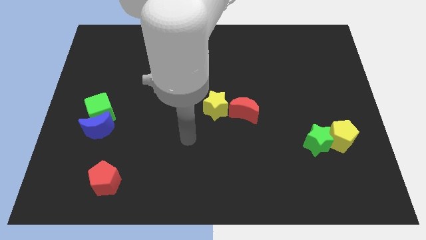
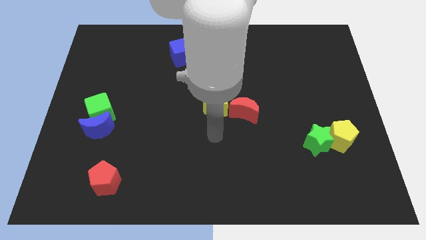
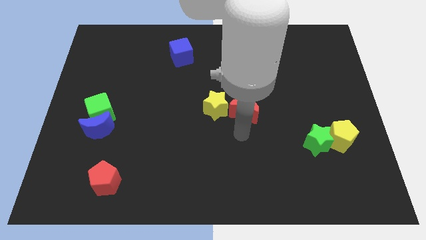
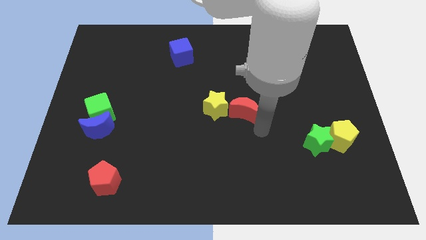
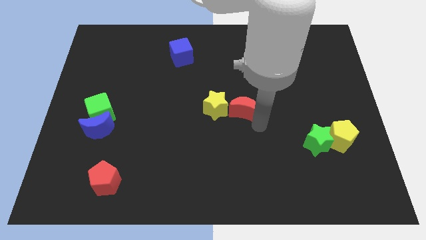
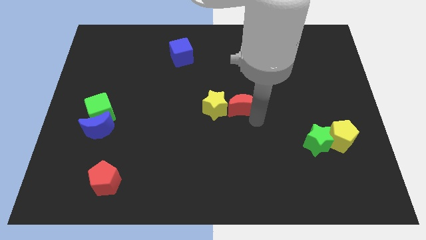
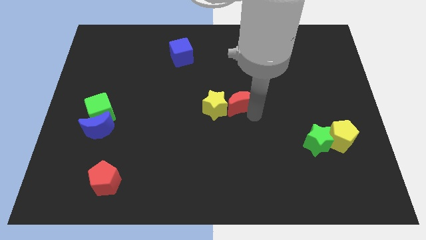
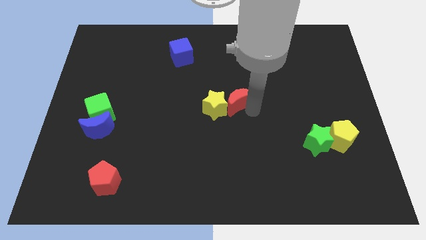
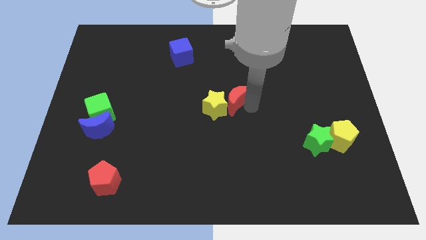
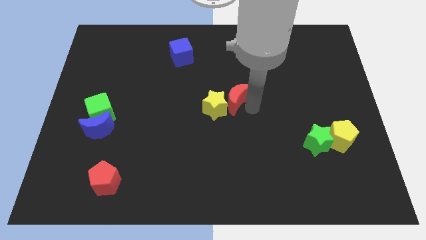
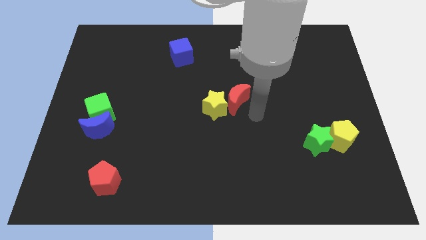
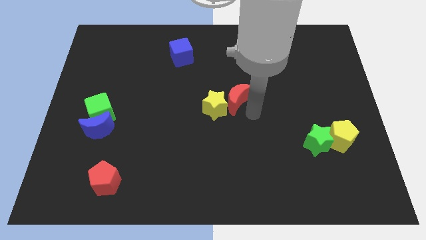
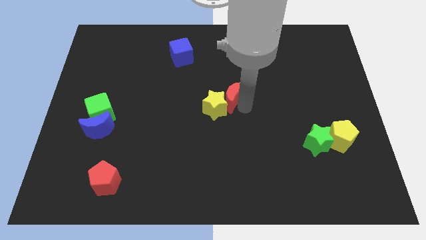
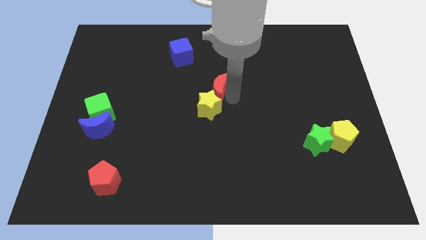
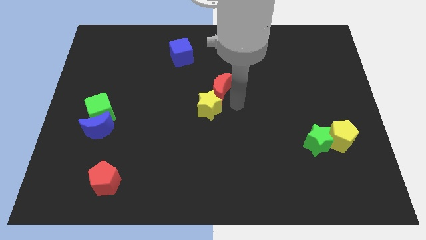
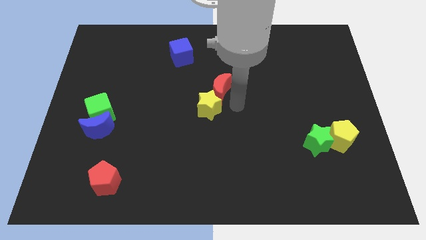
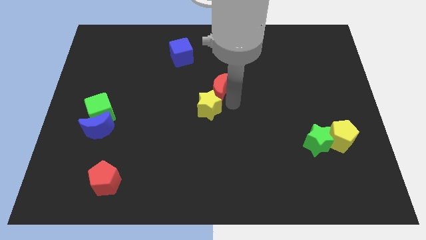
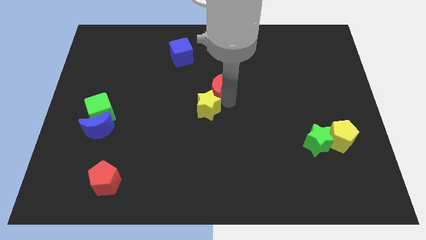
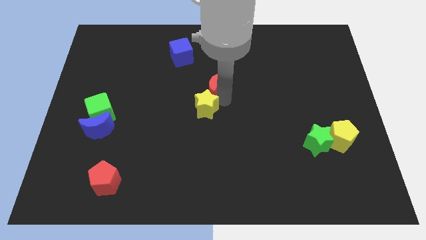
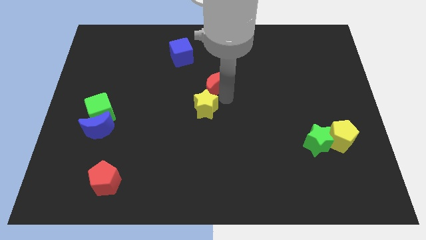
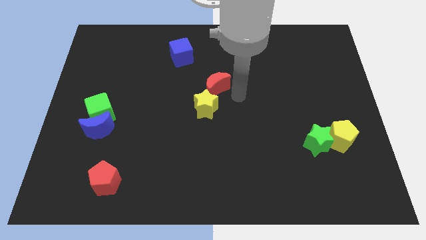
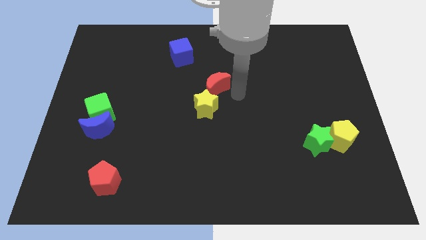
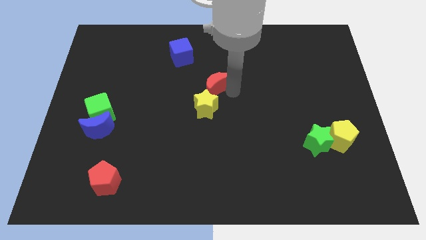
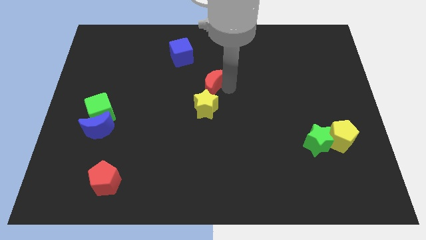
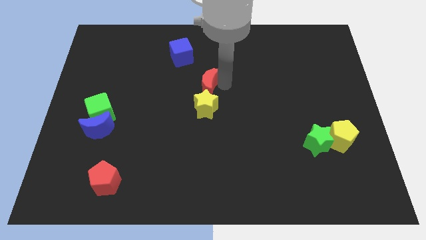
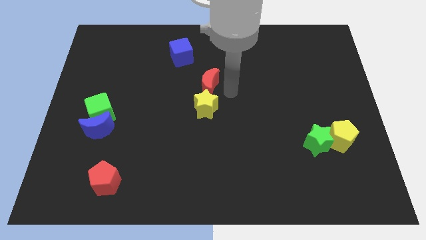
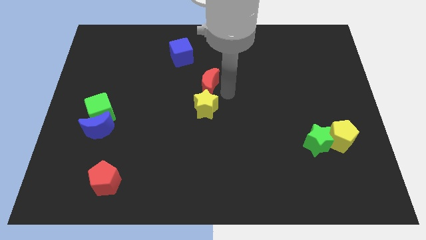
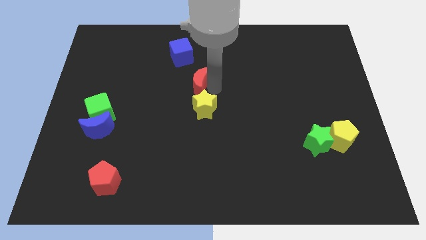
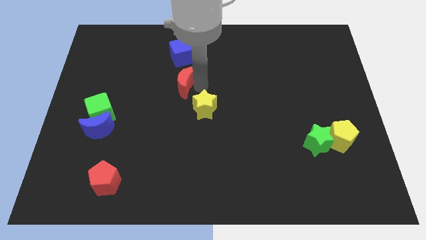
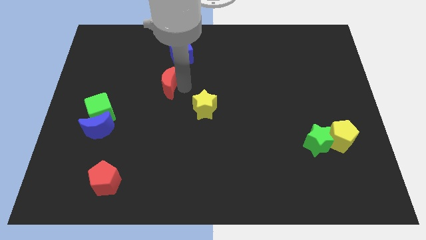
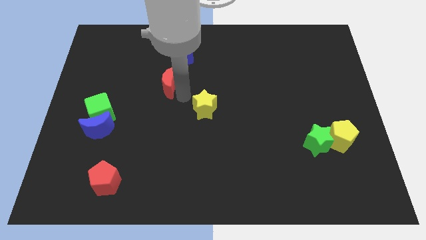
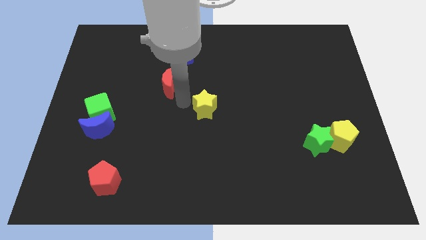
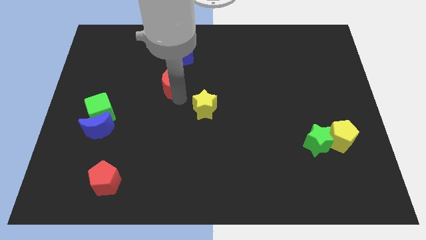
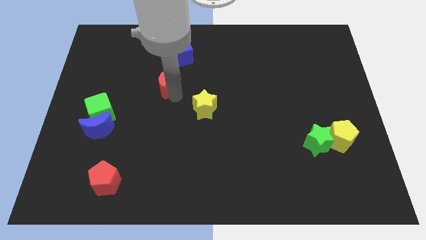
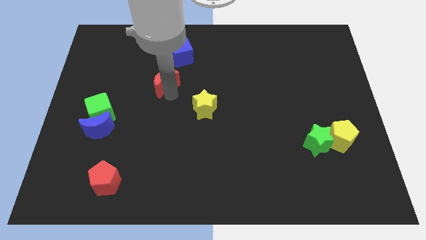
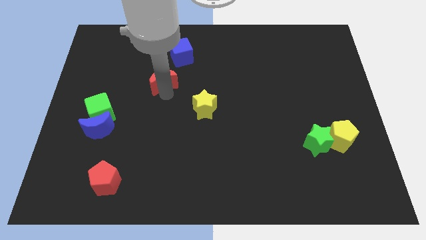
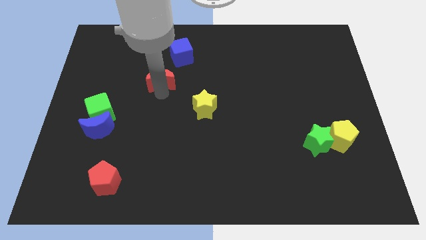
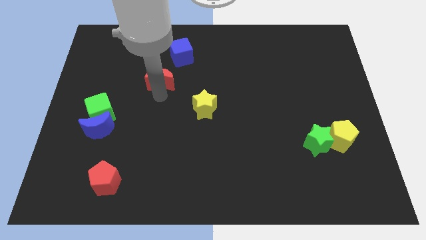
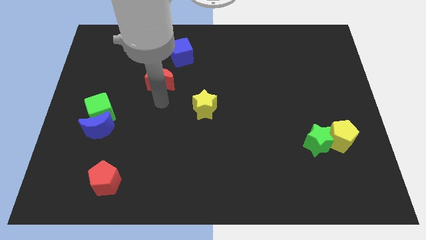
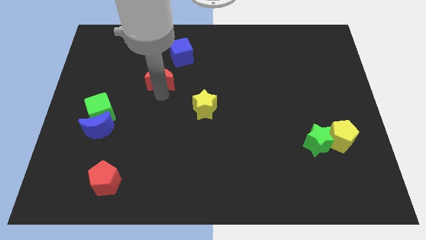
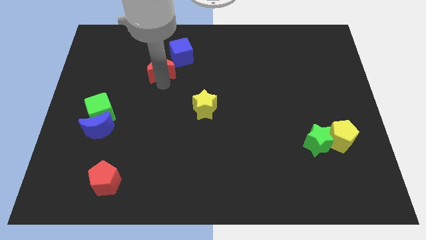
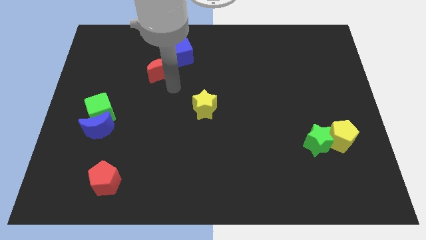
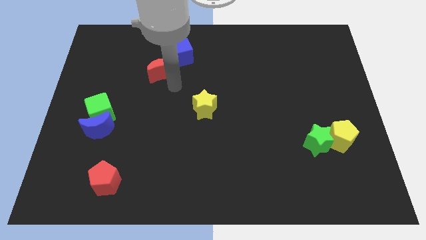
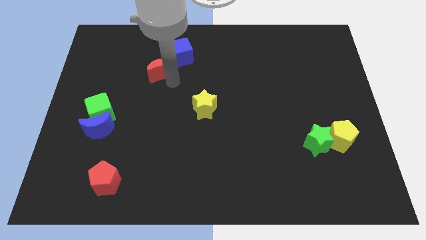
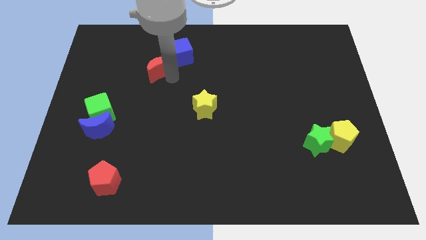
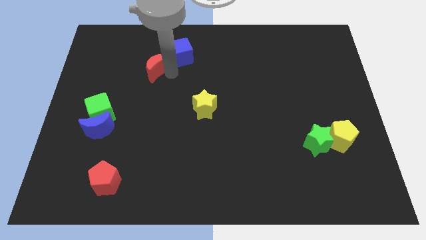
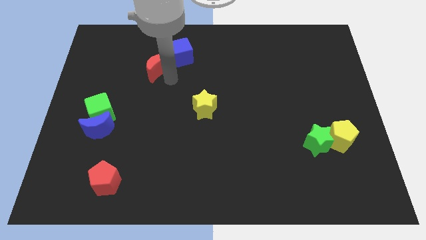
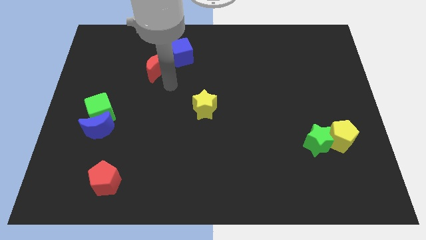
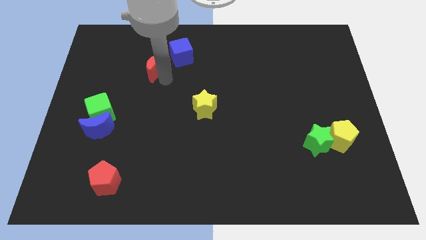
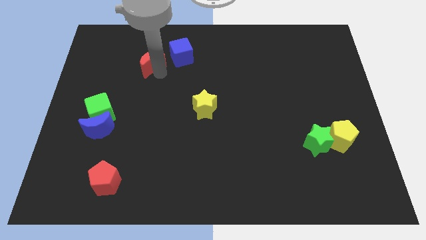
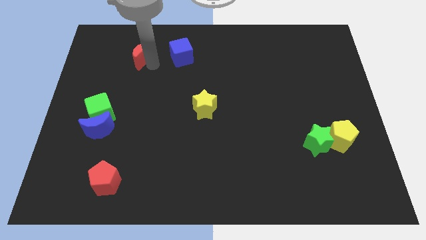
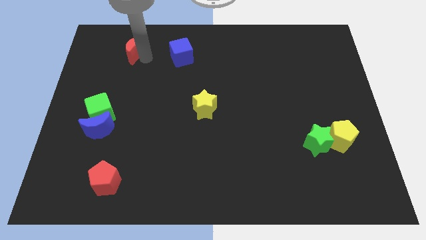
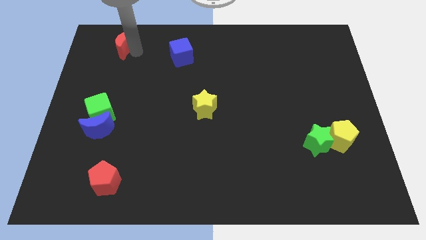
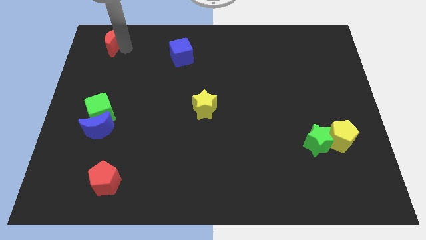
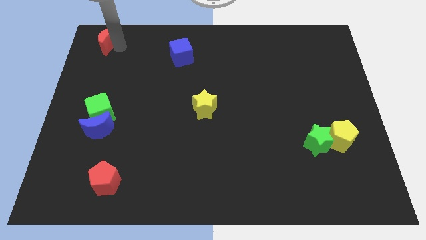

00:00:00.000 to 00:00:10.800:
move the red moon to the top left of the board

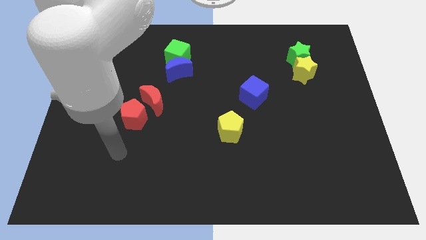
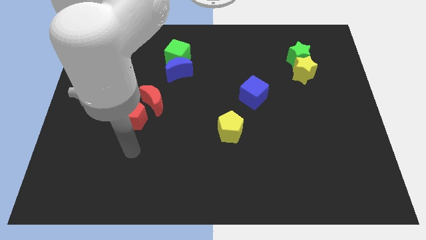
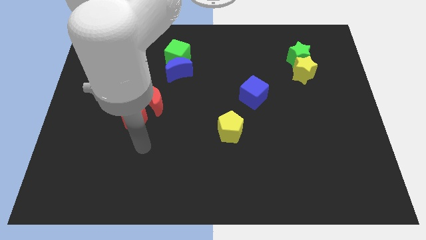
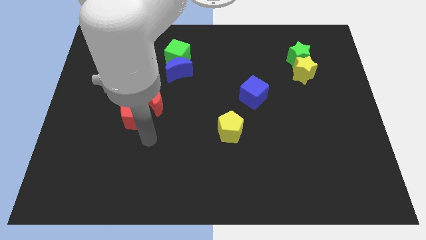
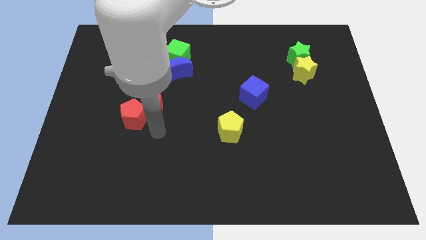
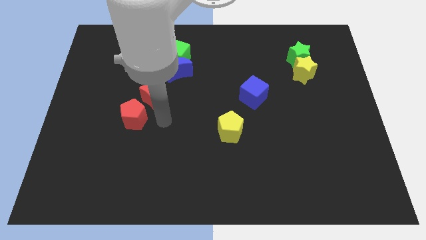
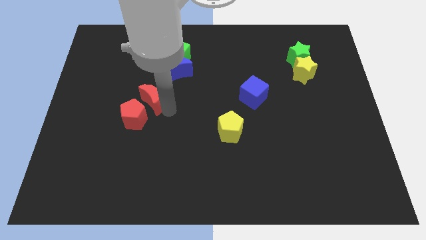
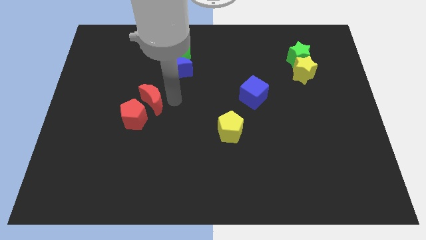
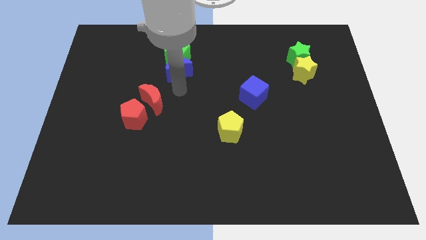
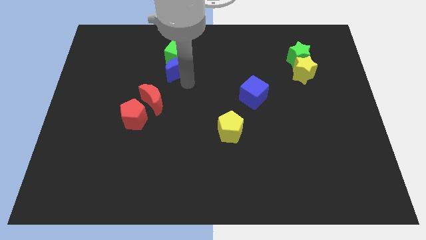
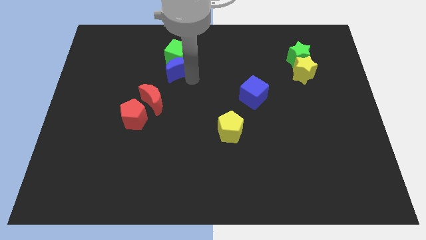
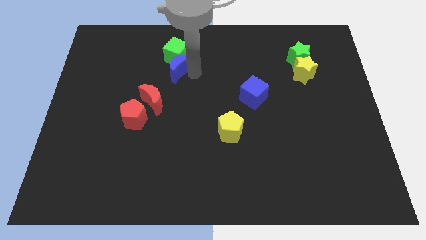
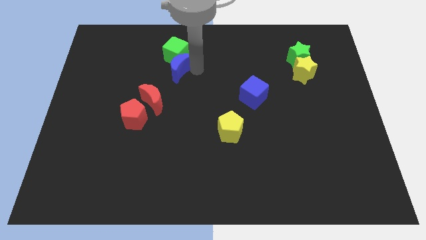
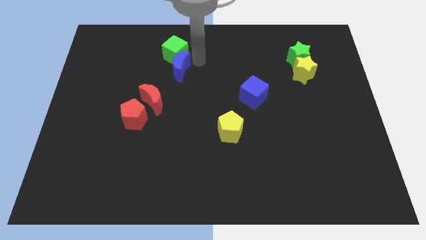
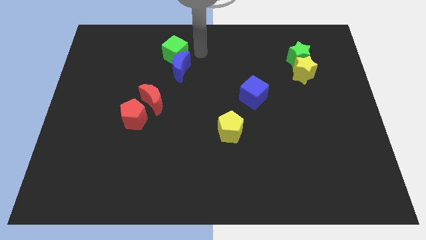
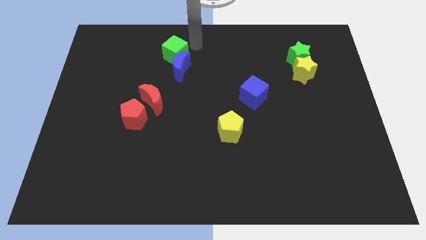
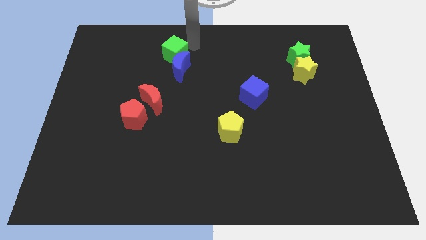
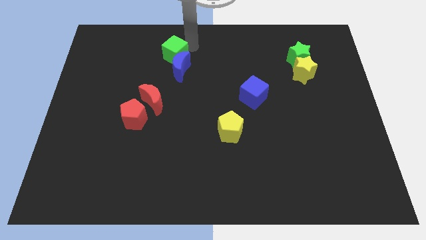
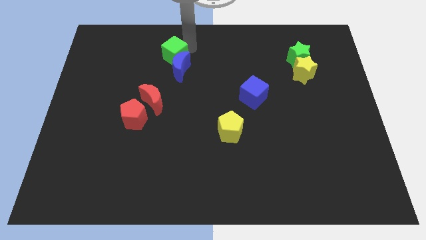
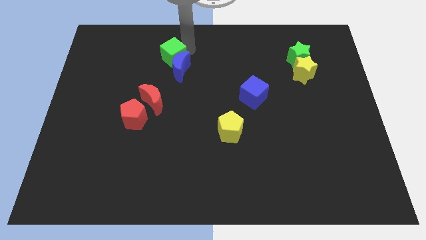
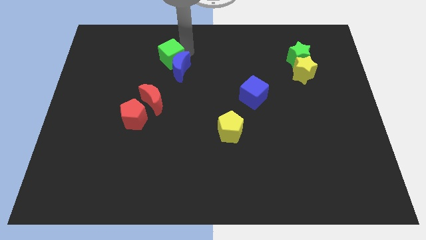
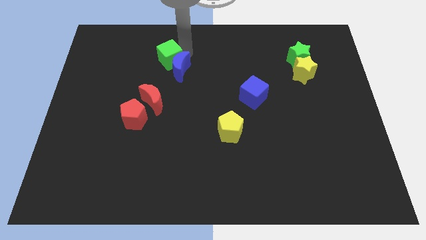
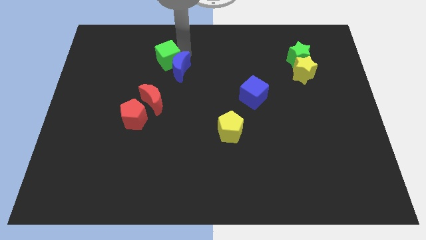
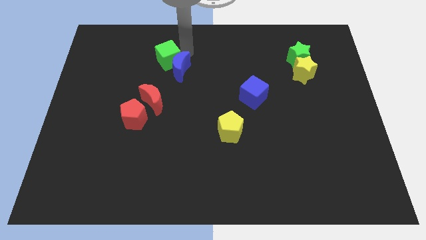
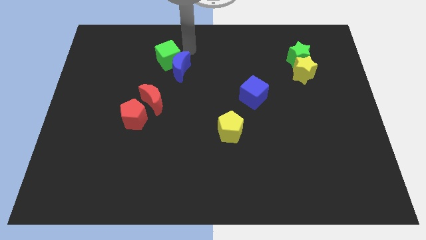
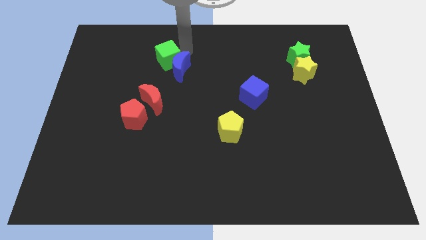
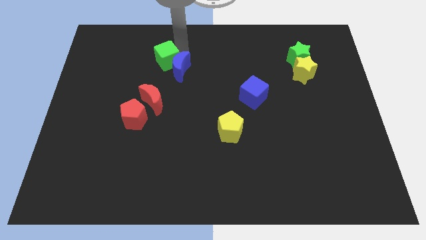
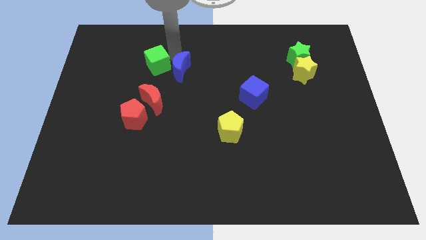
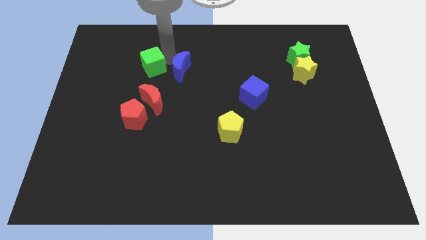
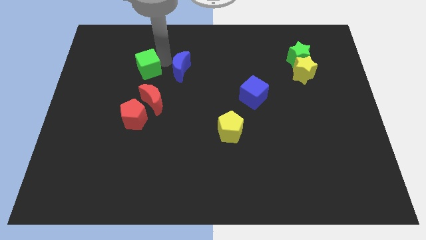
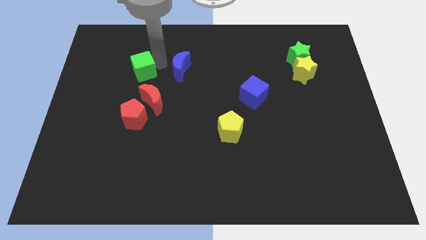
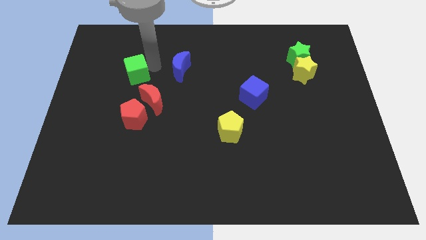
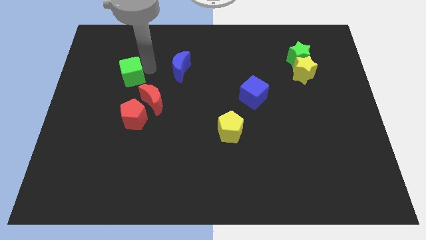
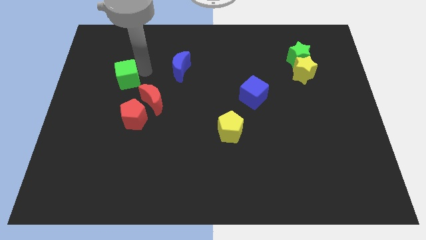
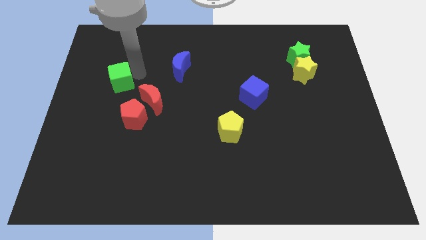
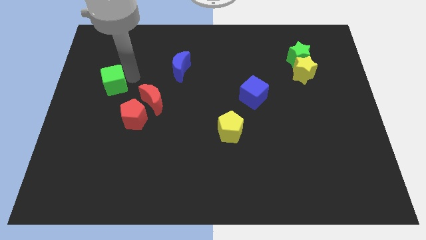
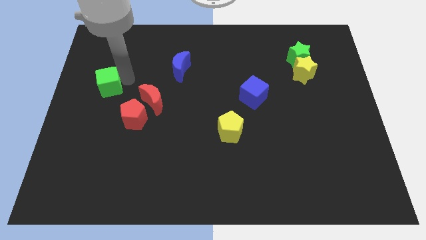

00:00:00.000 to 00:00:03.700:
slide the green cube to the center left
